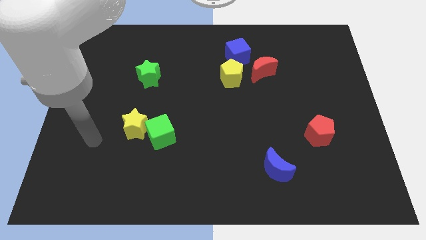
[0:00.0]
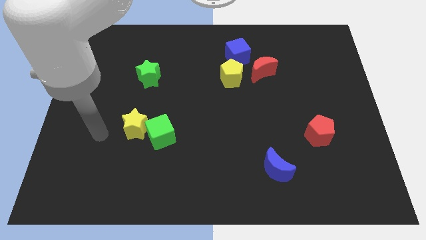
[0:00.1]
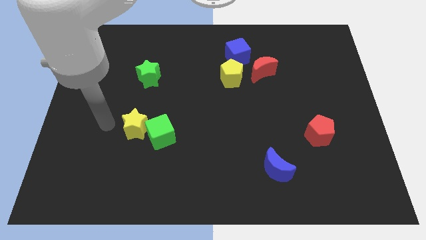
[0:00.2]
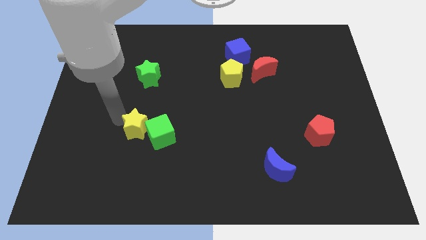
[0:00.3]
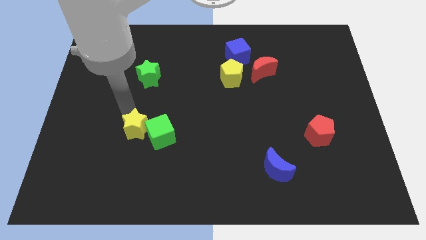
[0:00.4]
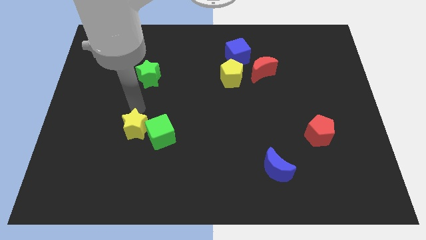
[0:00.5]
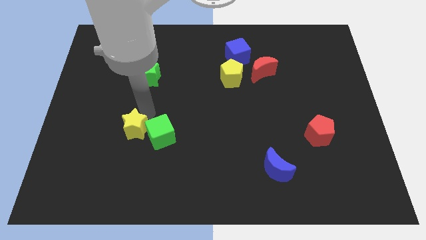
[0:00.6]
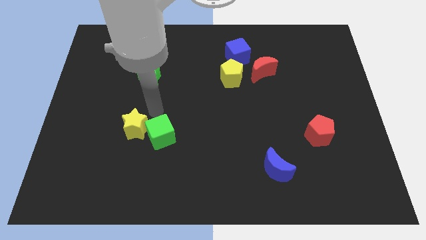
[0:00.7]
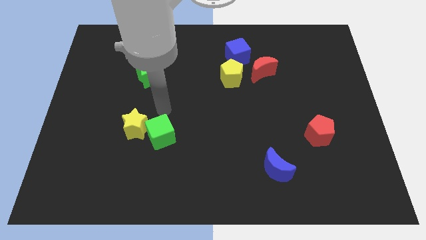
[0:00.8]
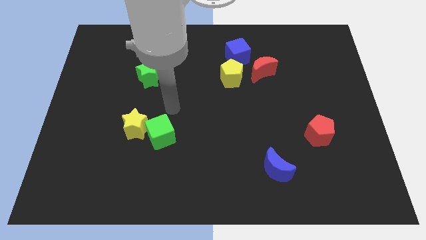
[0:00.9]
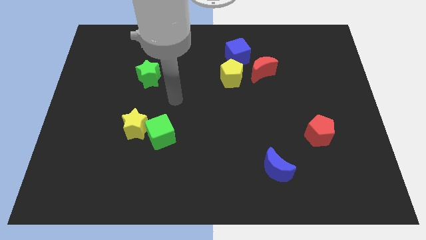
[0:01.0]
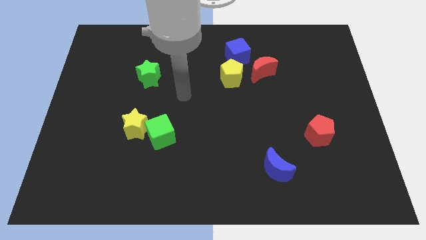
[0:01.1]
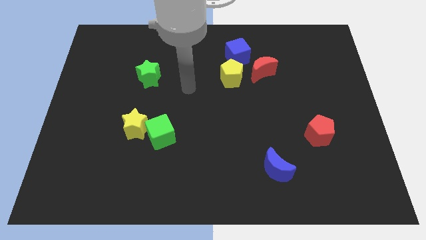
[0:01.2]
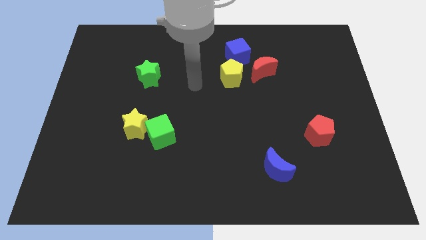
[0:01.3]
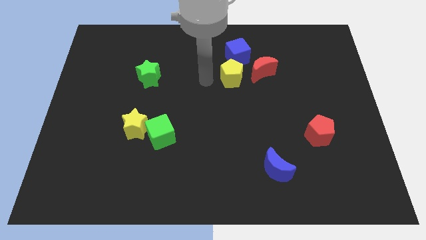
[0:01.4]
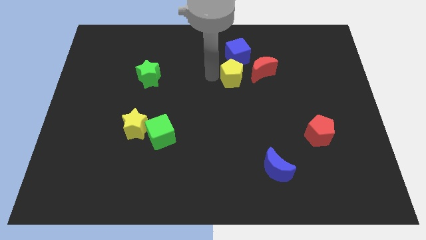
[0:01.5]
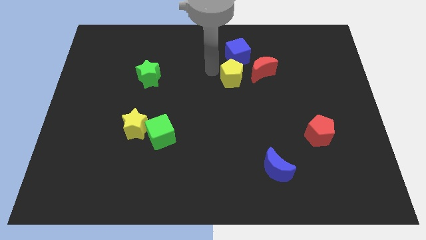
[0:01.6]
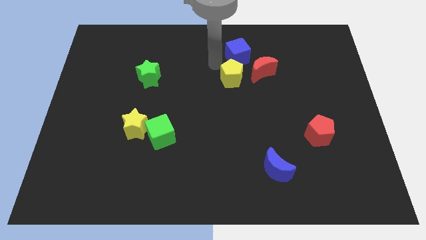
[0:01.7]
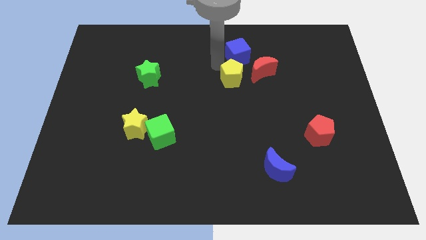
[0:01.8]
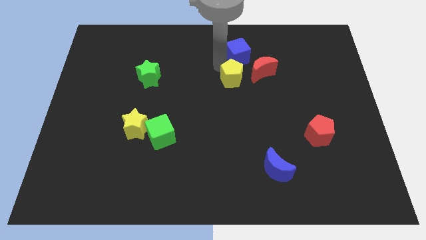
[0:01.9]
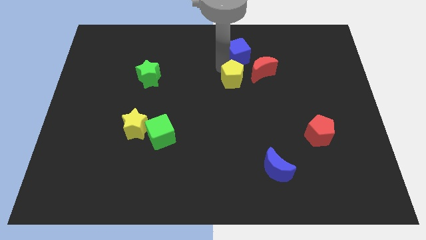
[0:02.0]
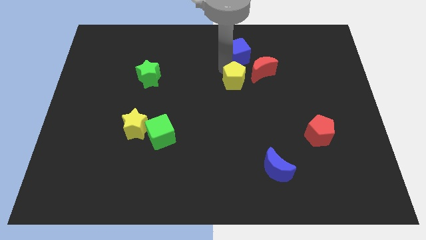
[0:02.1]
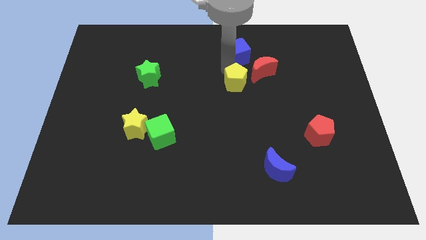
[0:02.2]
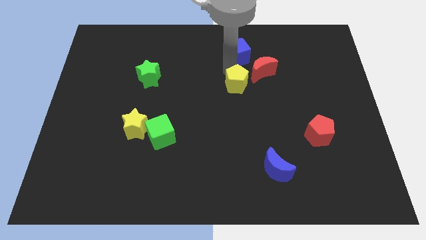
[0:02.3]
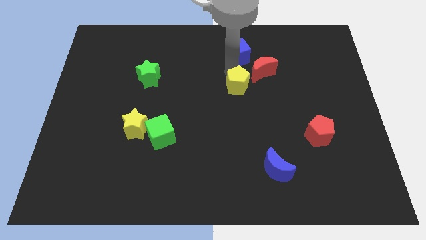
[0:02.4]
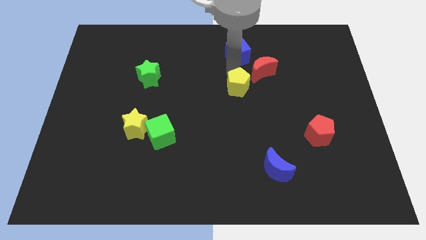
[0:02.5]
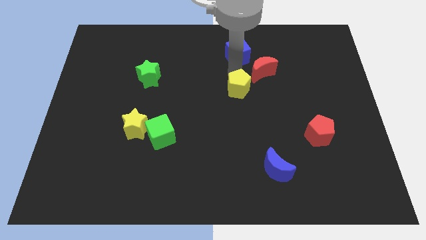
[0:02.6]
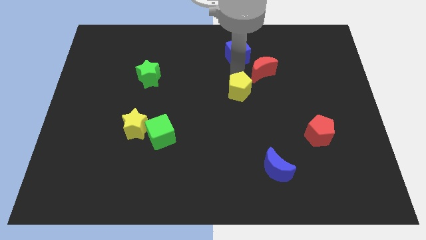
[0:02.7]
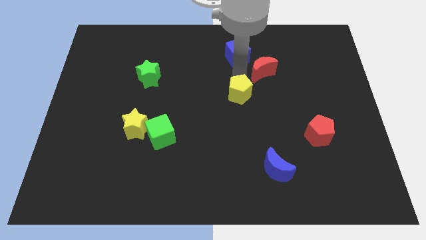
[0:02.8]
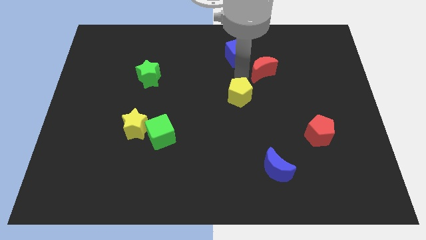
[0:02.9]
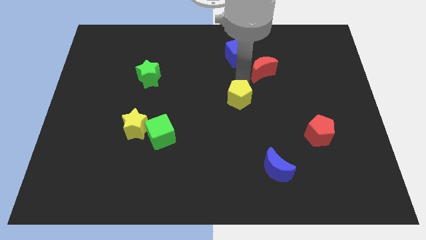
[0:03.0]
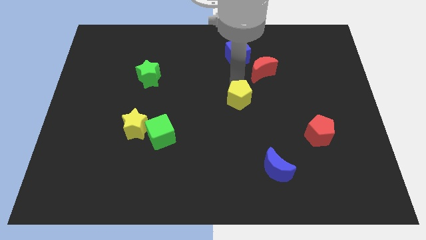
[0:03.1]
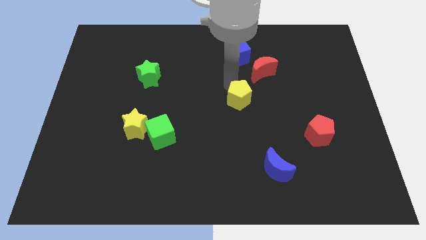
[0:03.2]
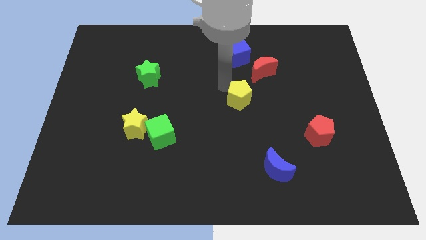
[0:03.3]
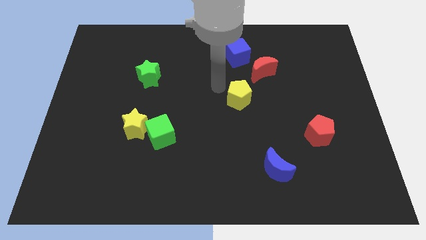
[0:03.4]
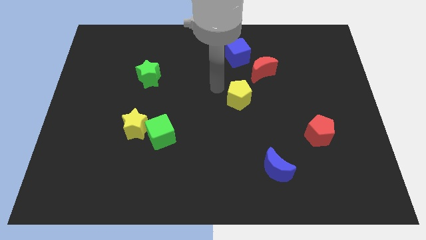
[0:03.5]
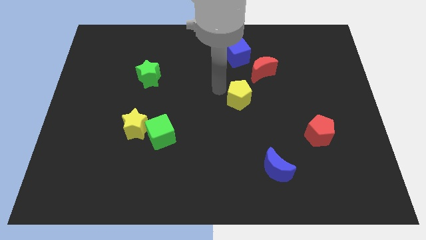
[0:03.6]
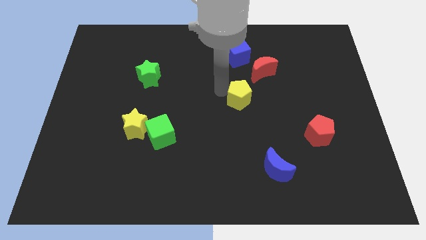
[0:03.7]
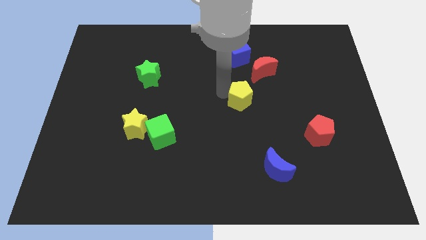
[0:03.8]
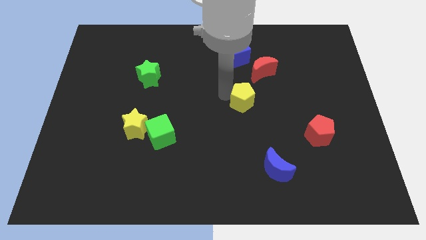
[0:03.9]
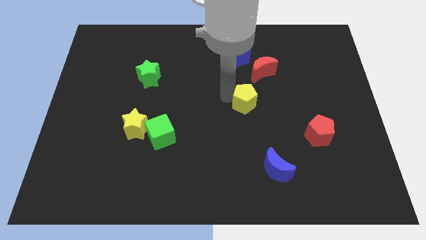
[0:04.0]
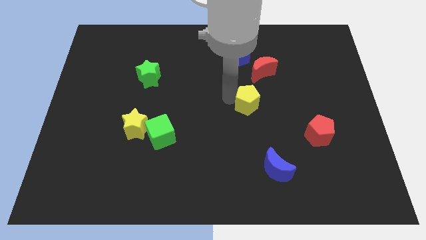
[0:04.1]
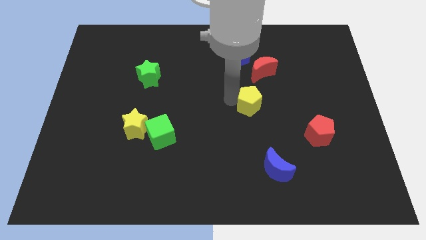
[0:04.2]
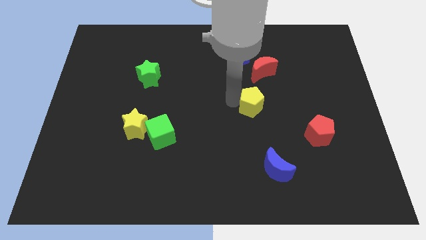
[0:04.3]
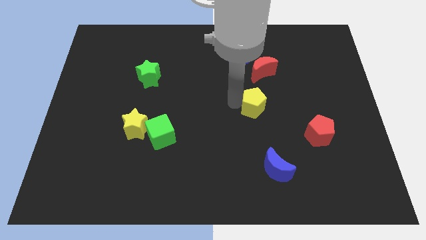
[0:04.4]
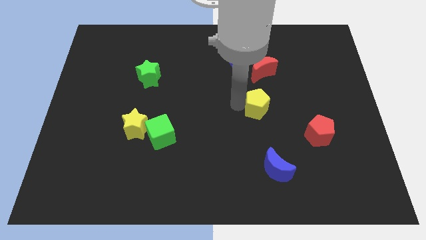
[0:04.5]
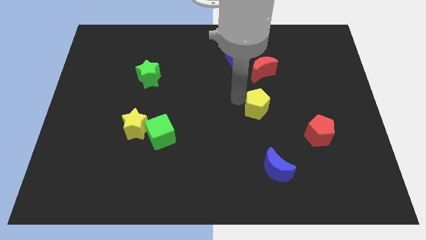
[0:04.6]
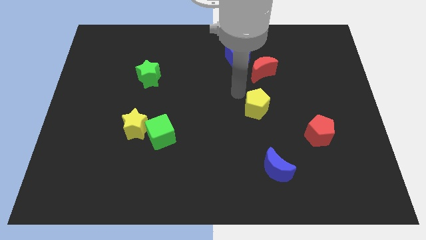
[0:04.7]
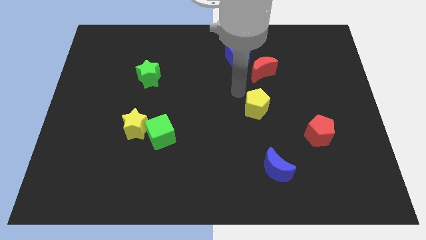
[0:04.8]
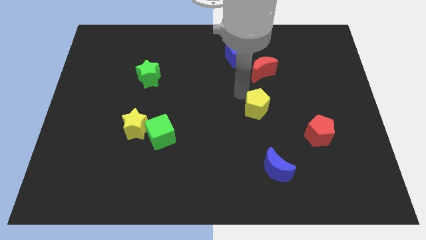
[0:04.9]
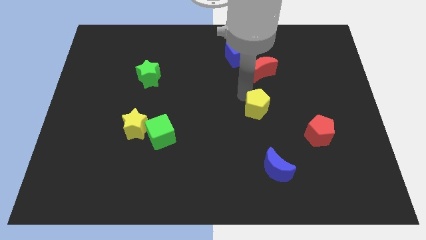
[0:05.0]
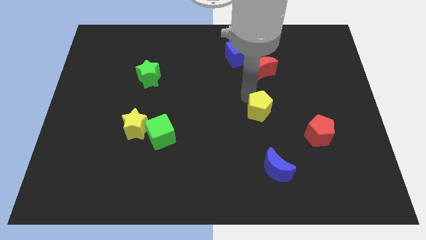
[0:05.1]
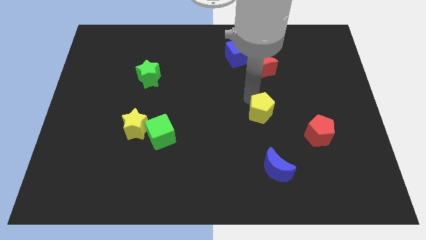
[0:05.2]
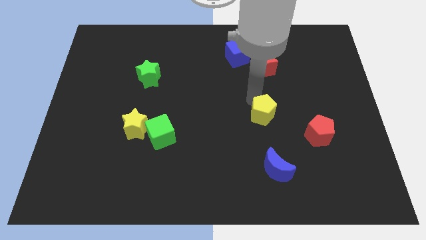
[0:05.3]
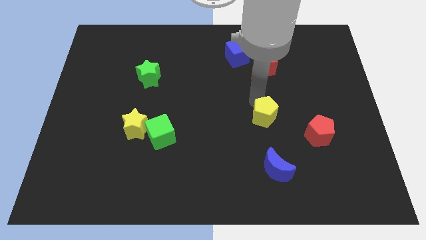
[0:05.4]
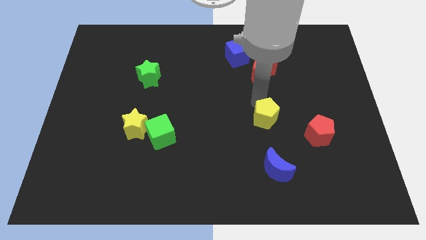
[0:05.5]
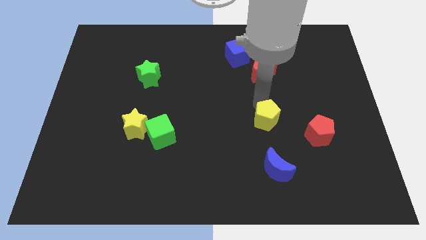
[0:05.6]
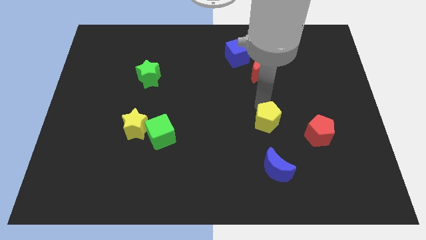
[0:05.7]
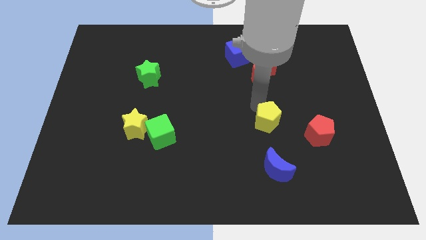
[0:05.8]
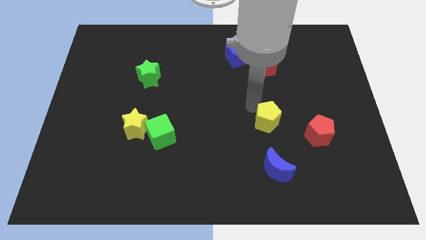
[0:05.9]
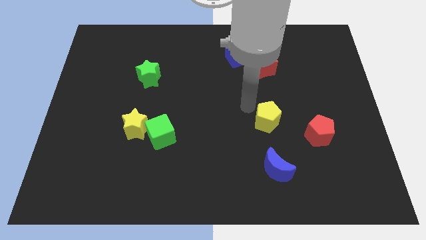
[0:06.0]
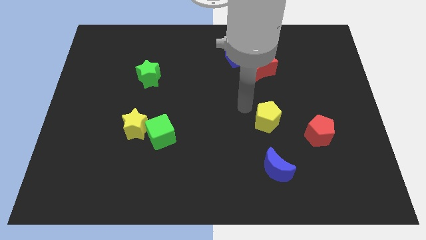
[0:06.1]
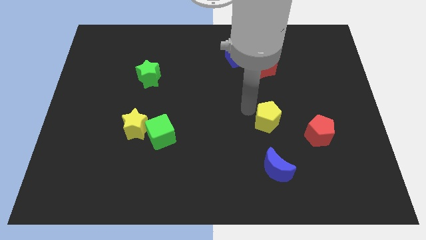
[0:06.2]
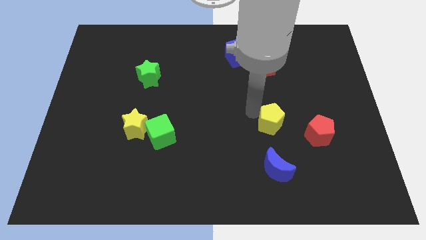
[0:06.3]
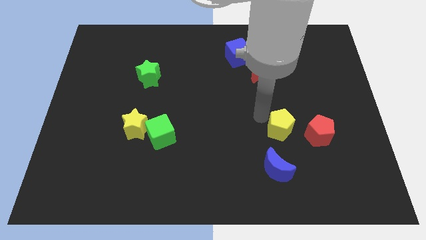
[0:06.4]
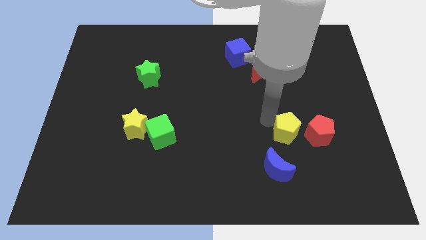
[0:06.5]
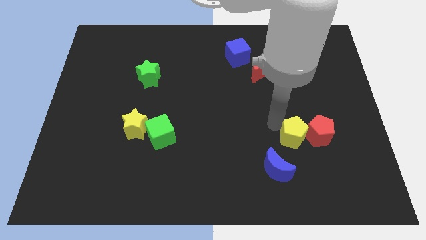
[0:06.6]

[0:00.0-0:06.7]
move the yellow pentagon down and right

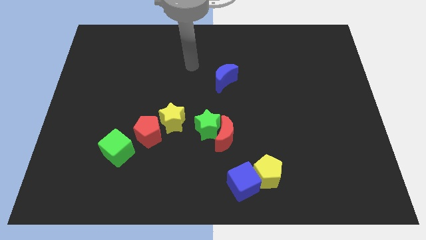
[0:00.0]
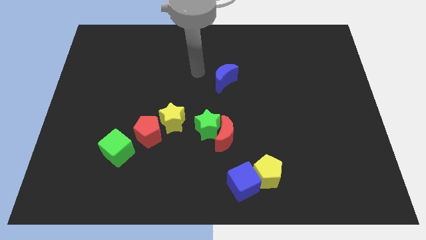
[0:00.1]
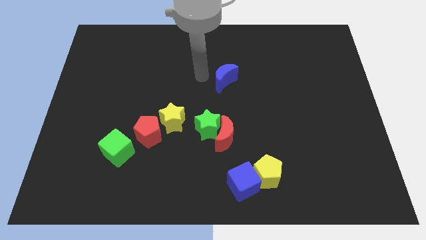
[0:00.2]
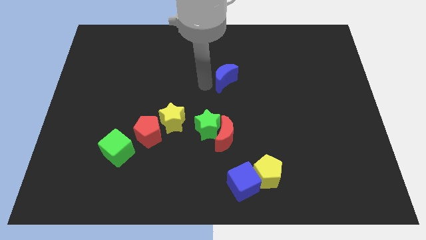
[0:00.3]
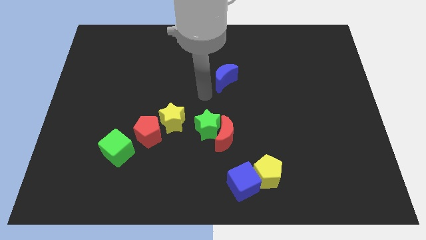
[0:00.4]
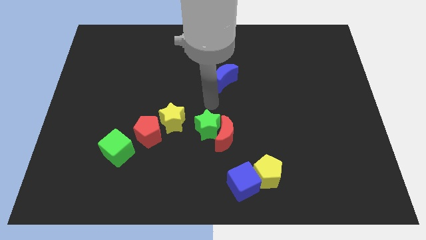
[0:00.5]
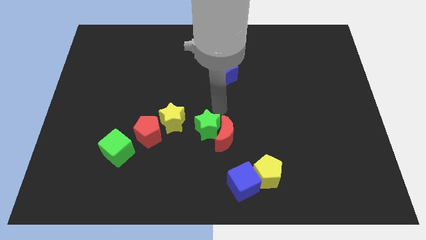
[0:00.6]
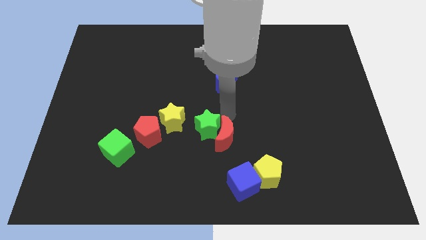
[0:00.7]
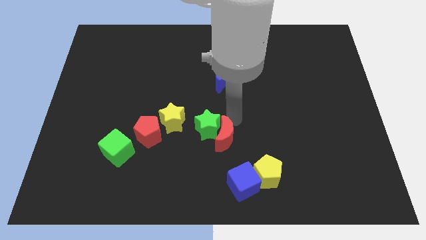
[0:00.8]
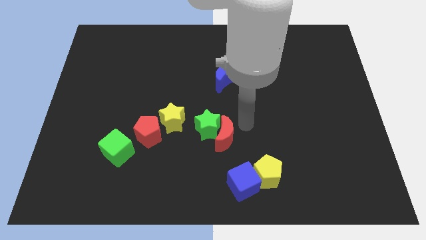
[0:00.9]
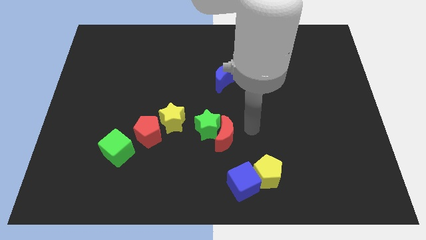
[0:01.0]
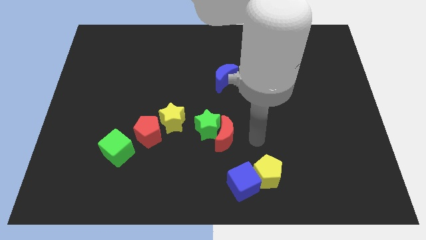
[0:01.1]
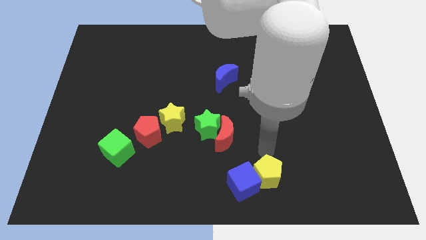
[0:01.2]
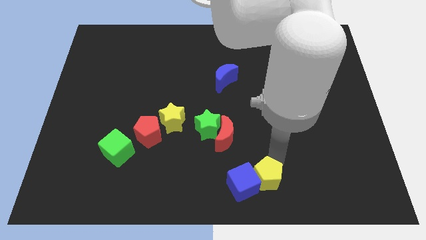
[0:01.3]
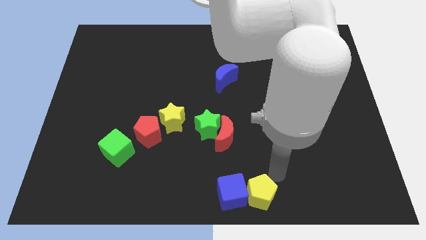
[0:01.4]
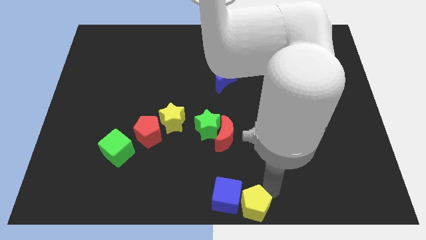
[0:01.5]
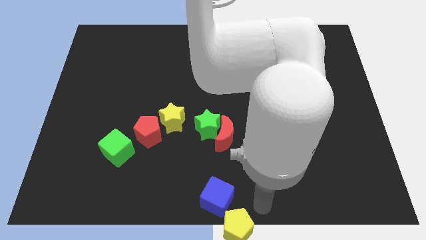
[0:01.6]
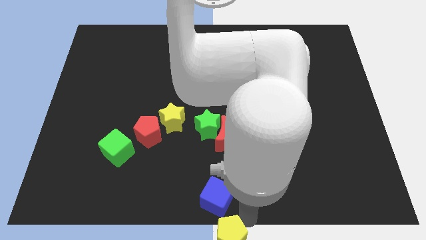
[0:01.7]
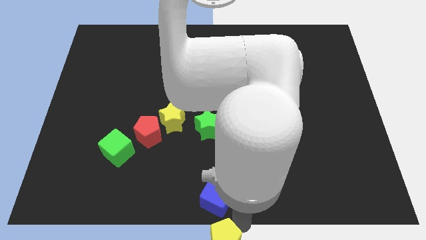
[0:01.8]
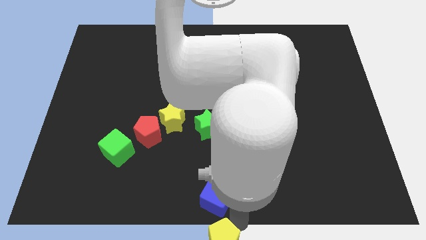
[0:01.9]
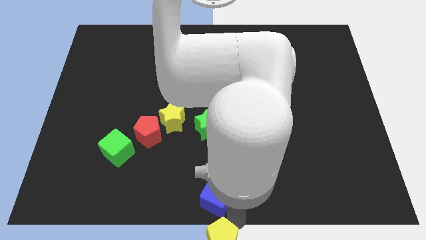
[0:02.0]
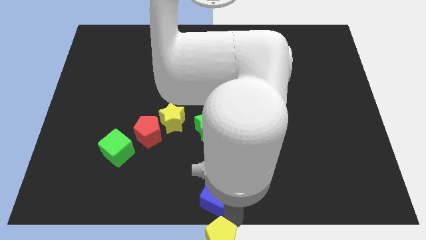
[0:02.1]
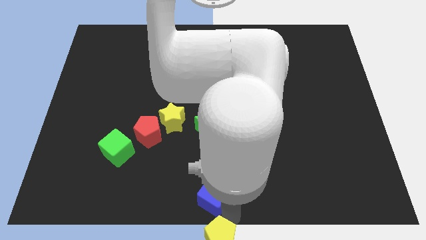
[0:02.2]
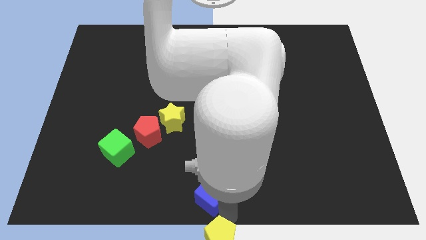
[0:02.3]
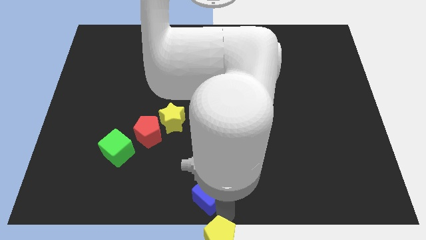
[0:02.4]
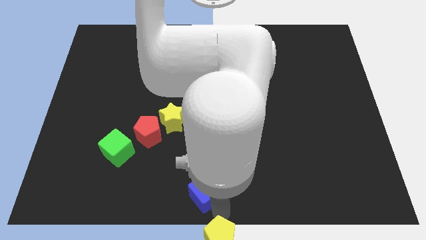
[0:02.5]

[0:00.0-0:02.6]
push the blue cube left a bit
